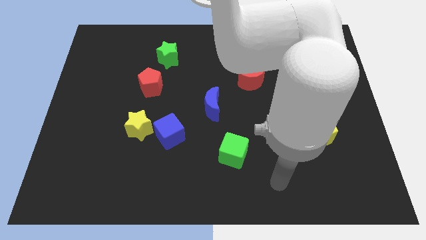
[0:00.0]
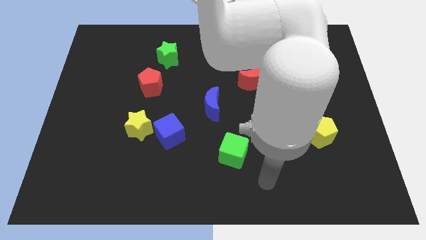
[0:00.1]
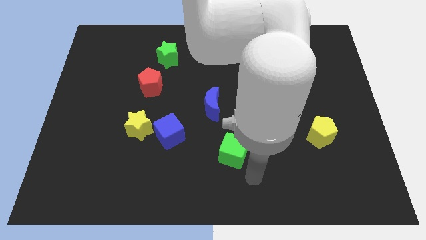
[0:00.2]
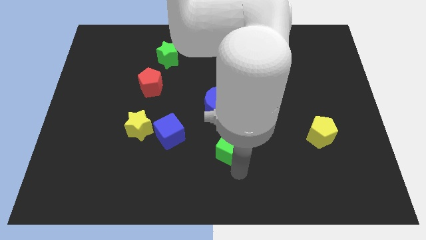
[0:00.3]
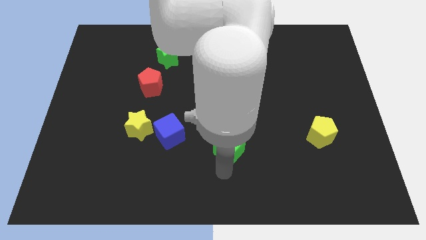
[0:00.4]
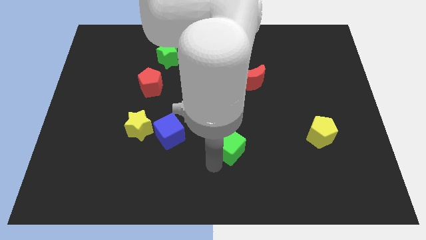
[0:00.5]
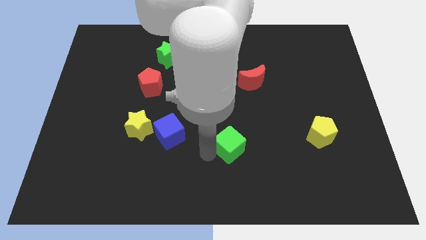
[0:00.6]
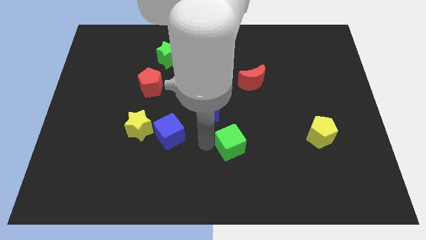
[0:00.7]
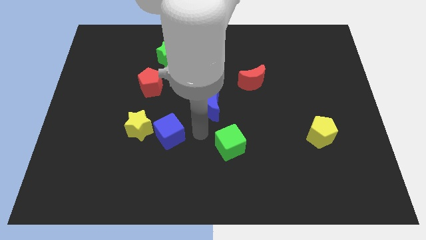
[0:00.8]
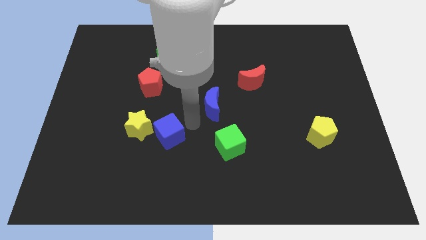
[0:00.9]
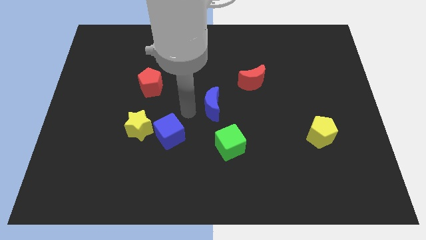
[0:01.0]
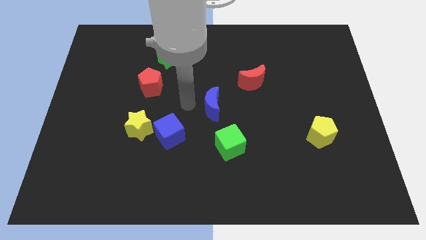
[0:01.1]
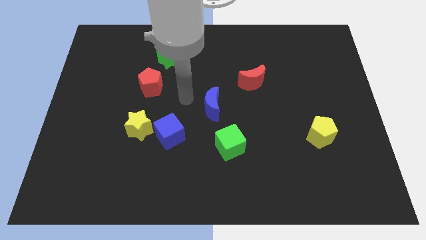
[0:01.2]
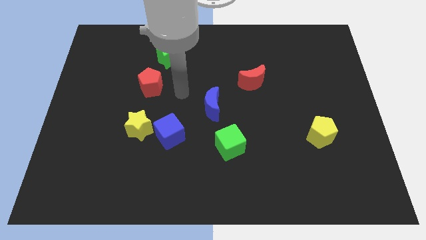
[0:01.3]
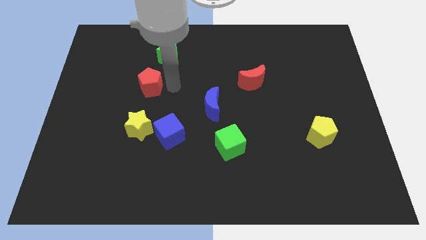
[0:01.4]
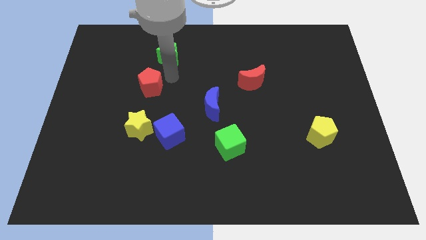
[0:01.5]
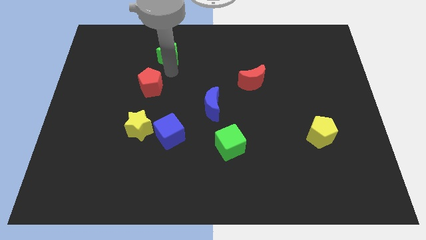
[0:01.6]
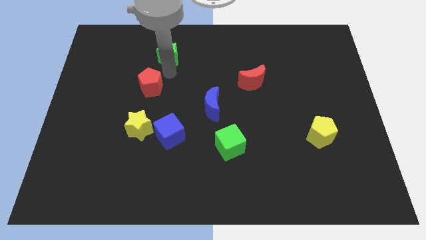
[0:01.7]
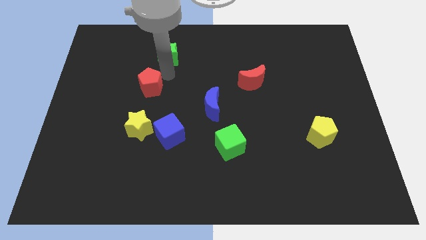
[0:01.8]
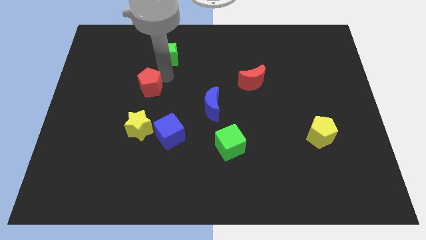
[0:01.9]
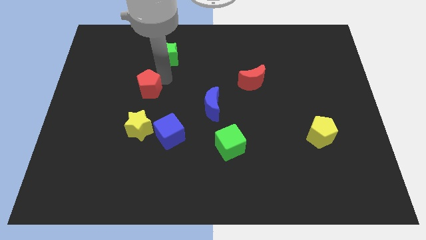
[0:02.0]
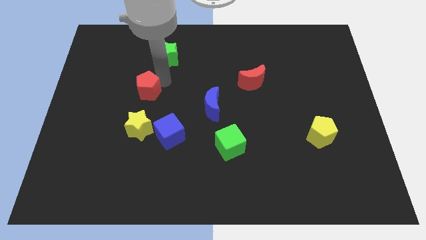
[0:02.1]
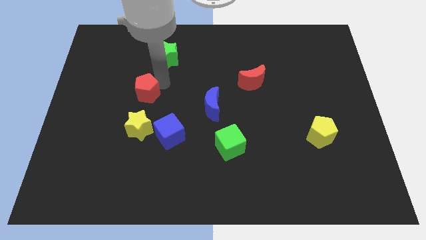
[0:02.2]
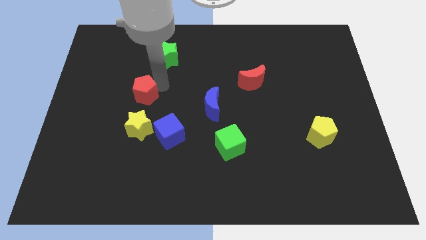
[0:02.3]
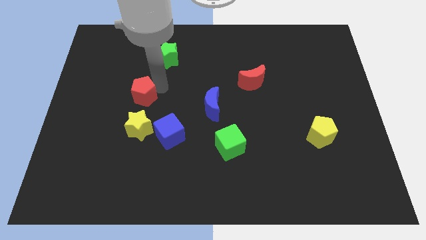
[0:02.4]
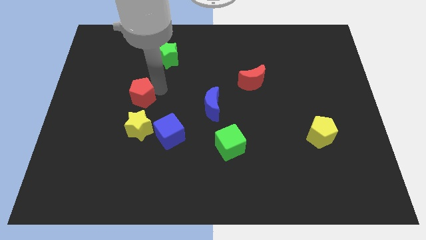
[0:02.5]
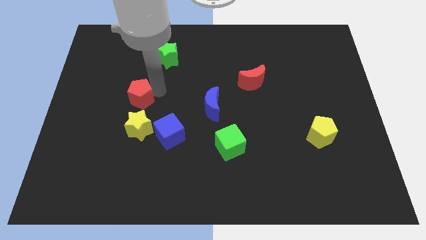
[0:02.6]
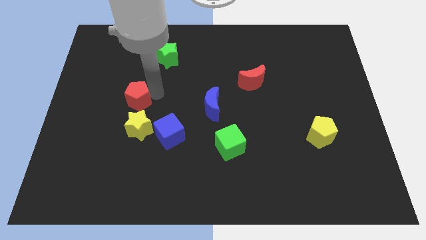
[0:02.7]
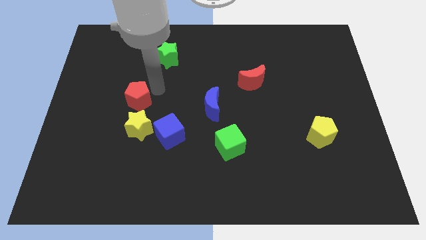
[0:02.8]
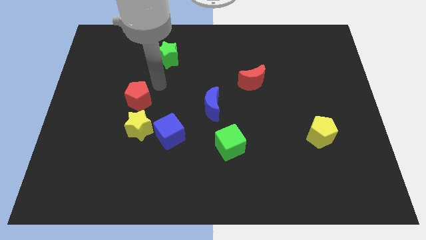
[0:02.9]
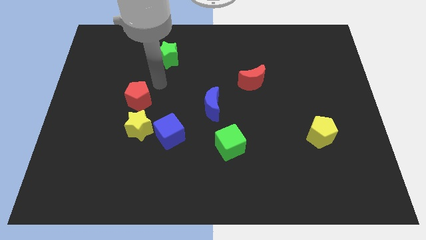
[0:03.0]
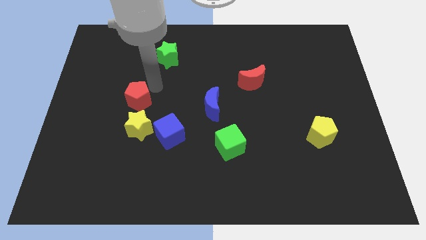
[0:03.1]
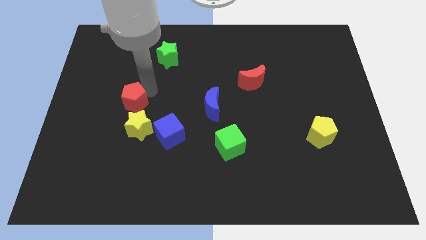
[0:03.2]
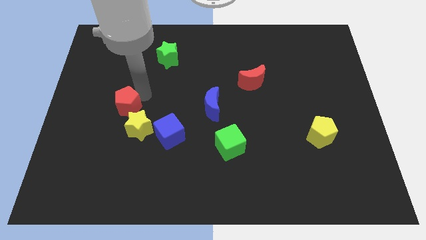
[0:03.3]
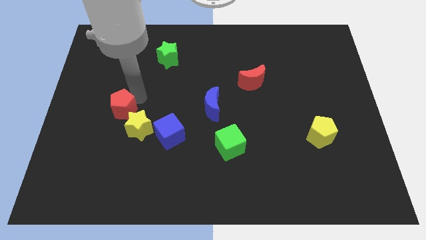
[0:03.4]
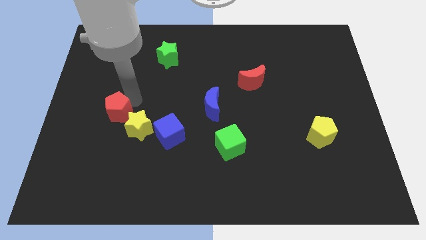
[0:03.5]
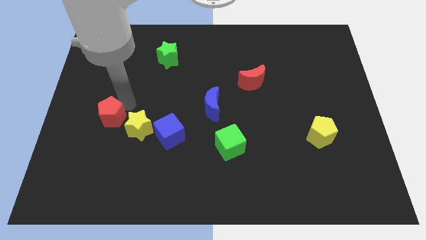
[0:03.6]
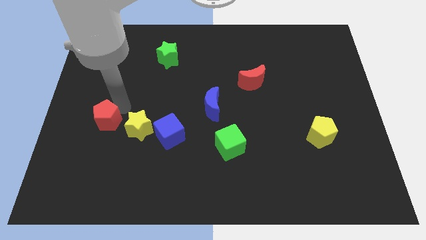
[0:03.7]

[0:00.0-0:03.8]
push the red pentagon downwards a bit

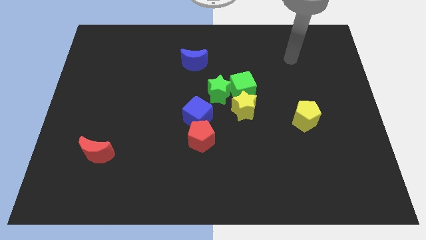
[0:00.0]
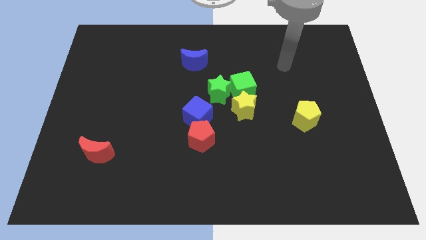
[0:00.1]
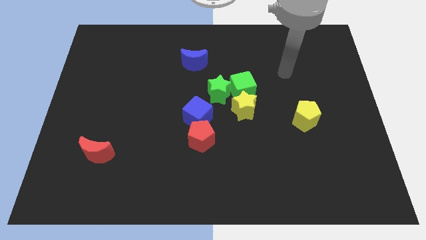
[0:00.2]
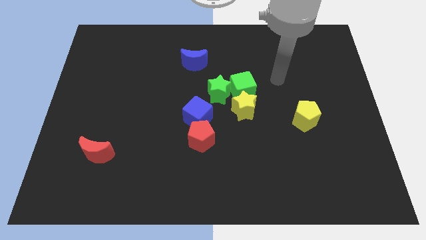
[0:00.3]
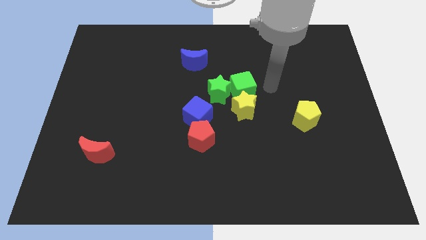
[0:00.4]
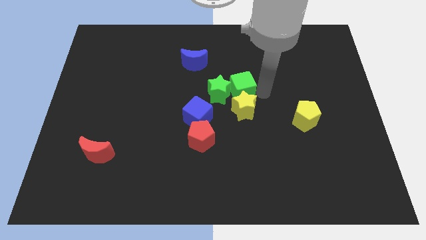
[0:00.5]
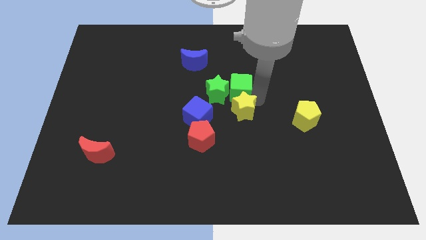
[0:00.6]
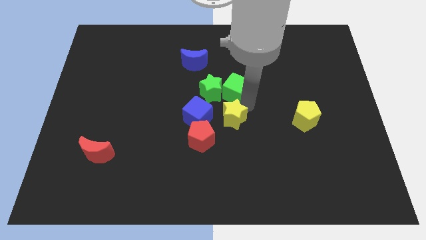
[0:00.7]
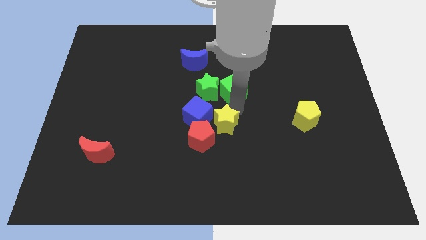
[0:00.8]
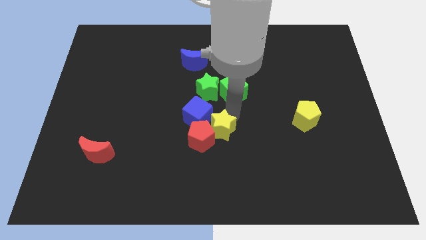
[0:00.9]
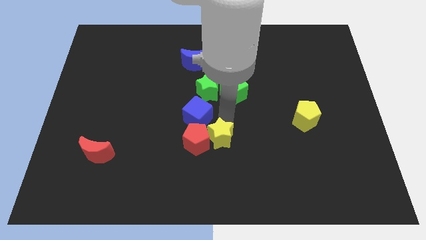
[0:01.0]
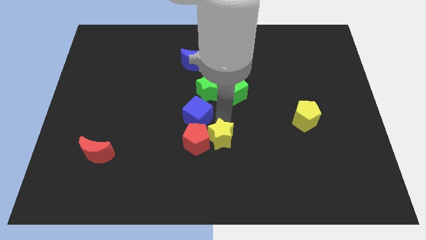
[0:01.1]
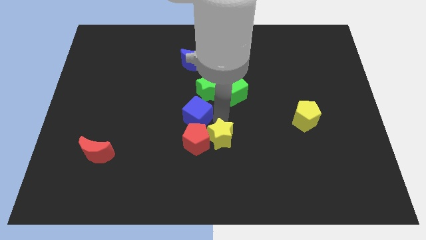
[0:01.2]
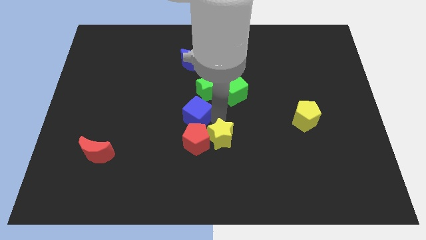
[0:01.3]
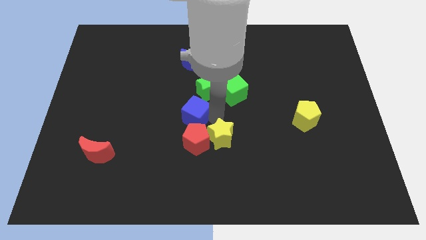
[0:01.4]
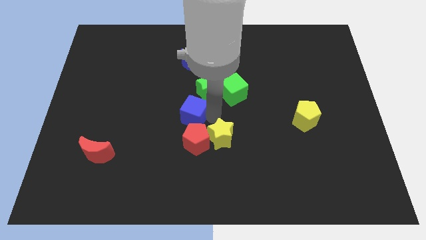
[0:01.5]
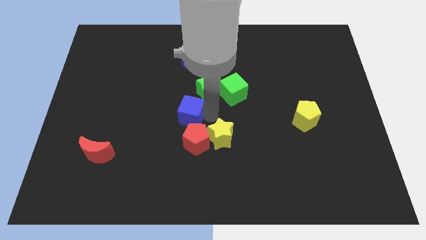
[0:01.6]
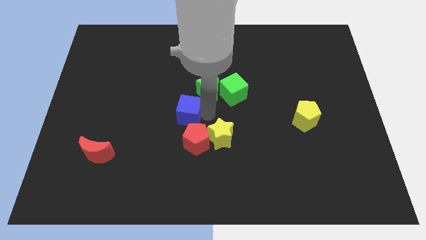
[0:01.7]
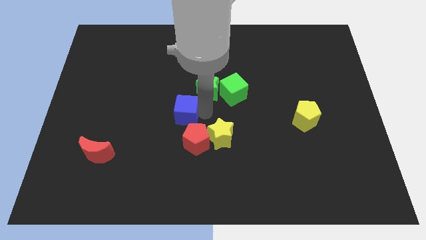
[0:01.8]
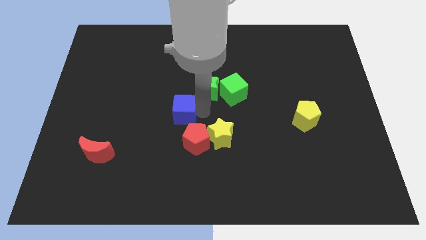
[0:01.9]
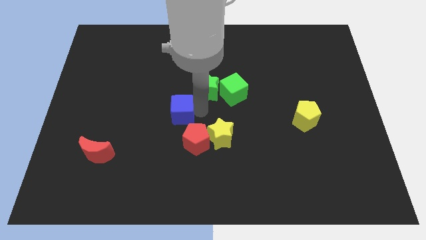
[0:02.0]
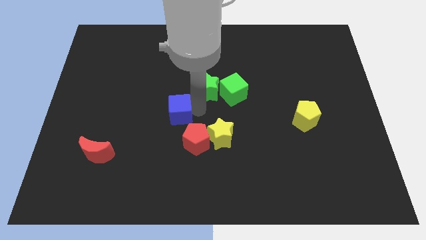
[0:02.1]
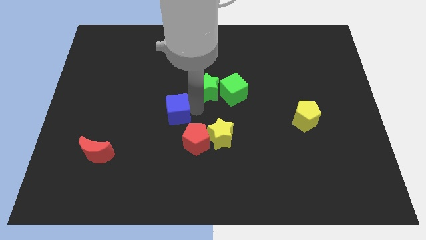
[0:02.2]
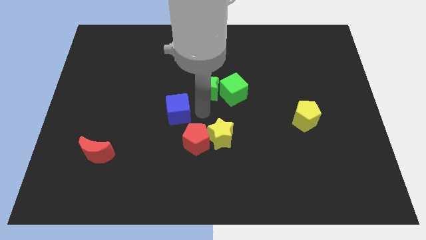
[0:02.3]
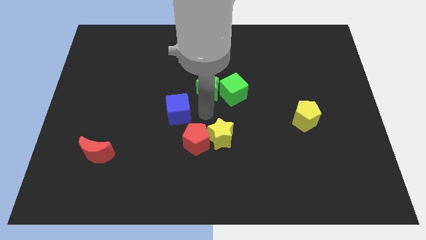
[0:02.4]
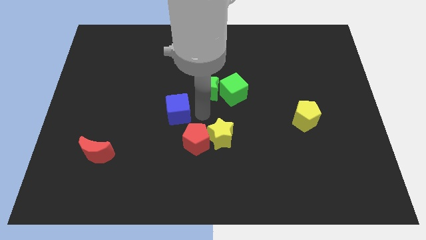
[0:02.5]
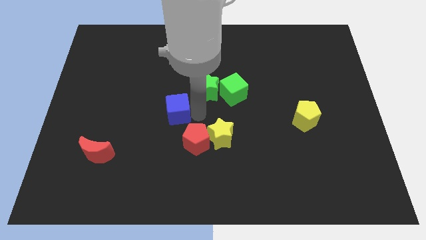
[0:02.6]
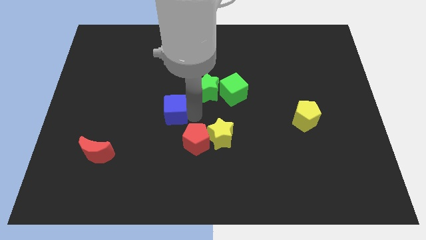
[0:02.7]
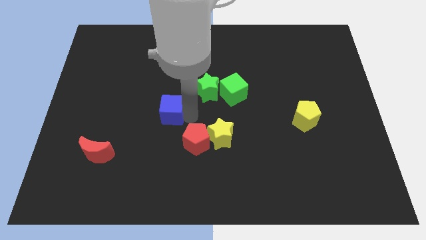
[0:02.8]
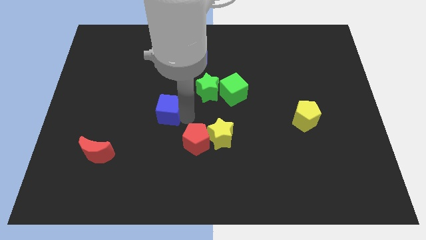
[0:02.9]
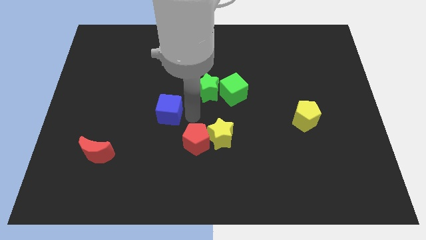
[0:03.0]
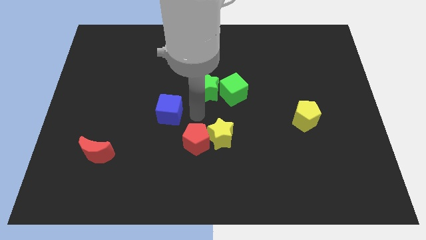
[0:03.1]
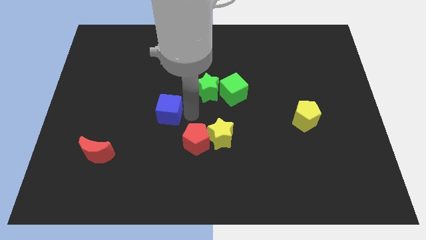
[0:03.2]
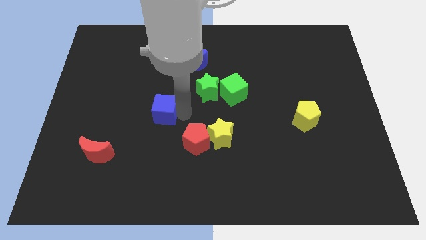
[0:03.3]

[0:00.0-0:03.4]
push the blue cube somewhat left

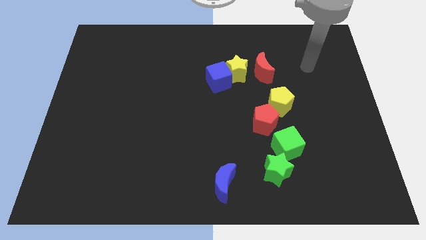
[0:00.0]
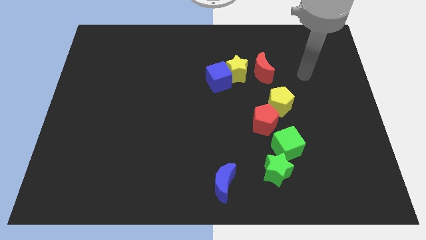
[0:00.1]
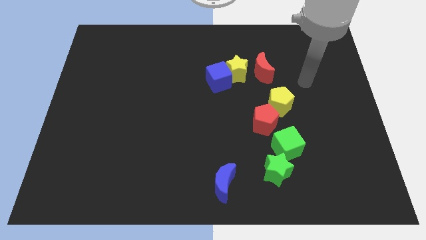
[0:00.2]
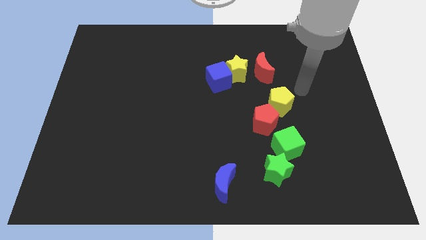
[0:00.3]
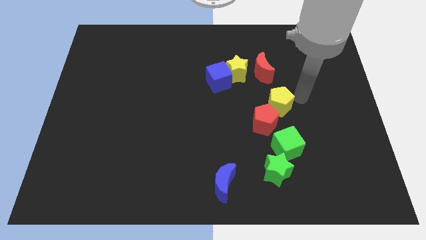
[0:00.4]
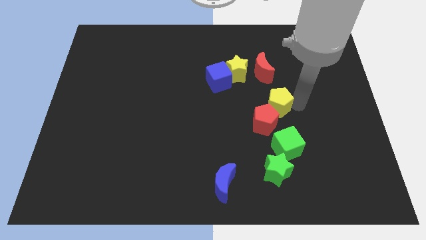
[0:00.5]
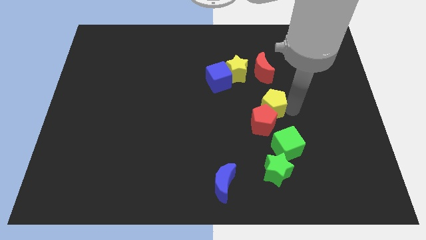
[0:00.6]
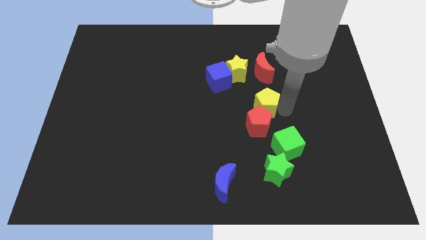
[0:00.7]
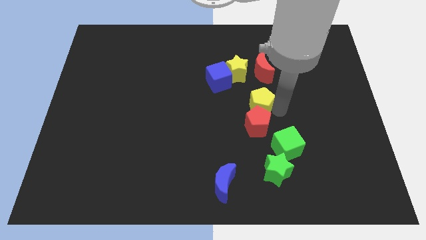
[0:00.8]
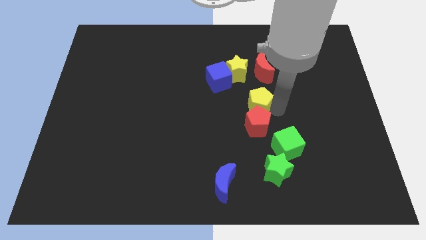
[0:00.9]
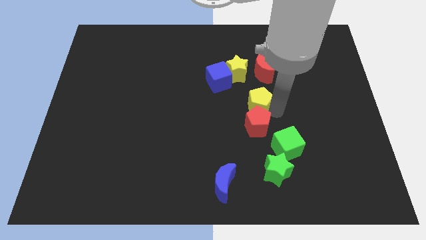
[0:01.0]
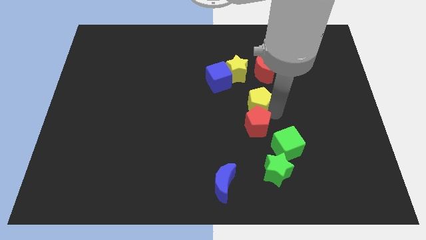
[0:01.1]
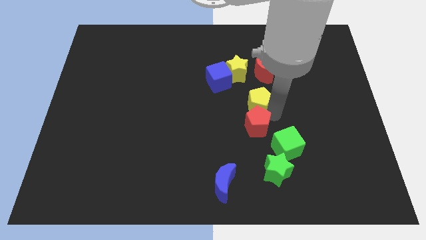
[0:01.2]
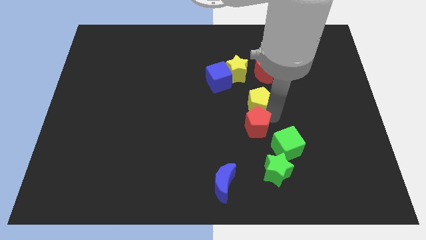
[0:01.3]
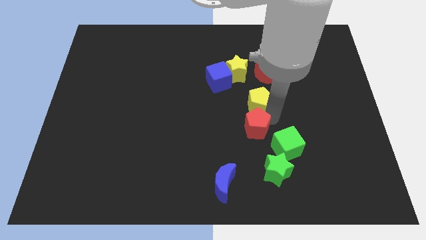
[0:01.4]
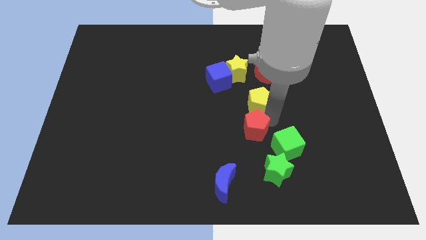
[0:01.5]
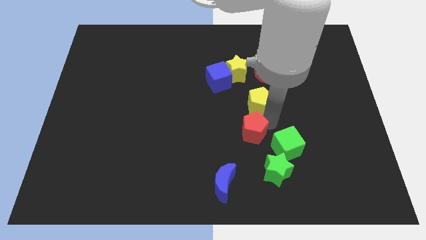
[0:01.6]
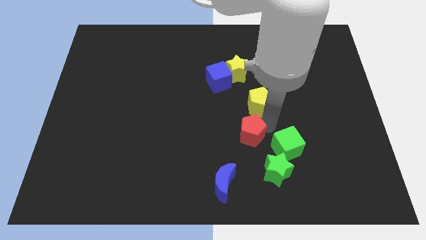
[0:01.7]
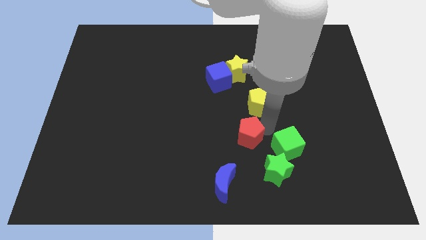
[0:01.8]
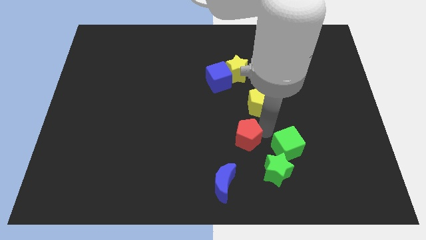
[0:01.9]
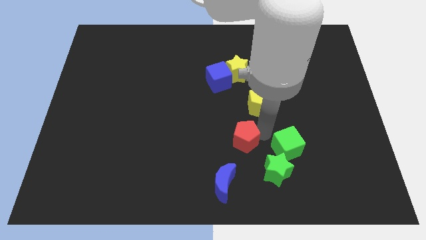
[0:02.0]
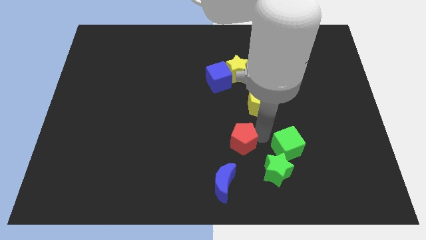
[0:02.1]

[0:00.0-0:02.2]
slide the red pentagon diagonally downwards and left a little
